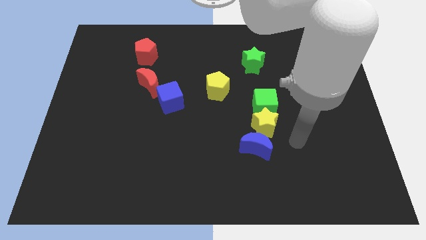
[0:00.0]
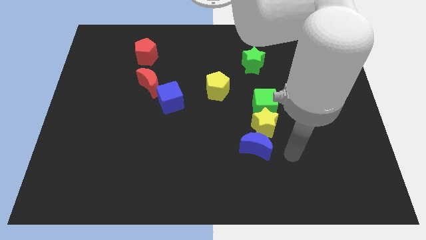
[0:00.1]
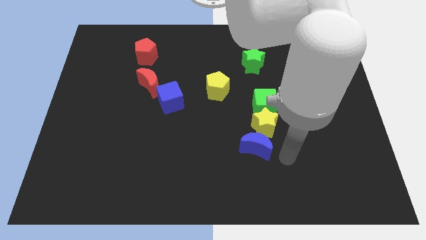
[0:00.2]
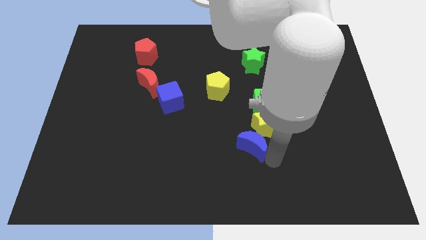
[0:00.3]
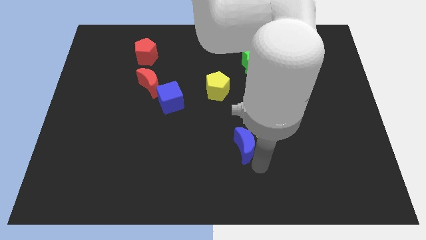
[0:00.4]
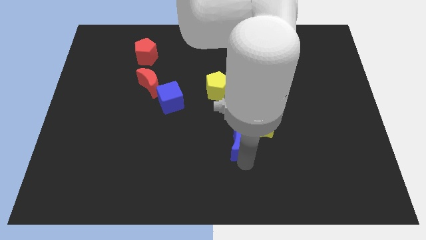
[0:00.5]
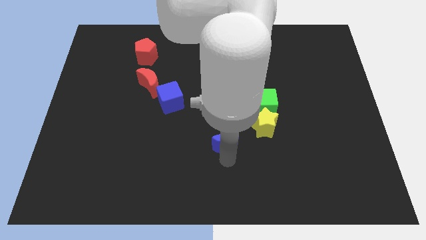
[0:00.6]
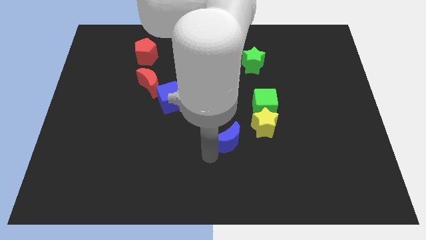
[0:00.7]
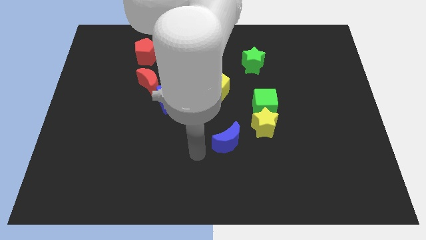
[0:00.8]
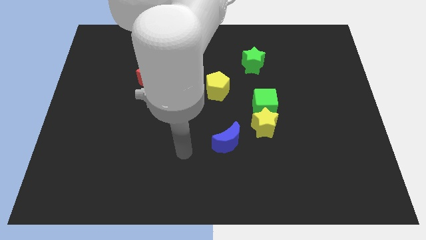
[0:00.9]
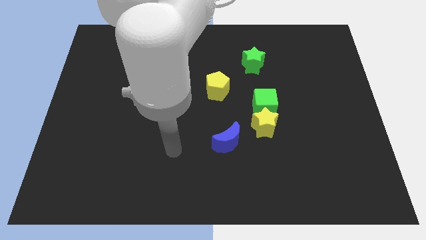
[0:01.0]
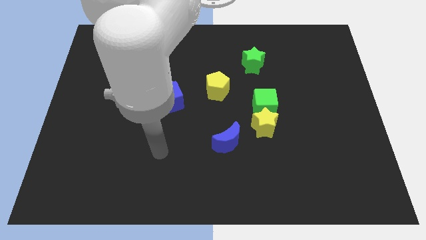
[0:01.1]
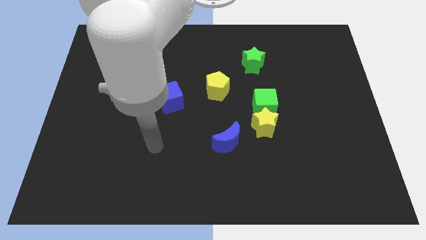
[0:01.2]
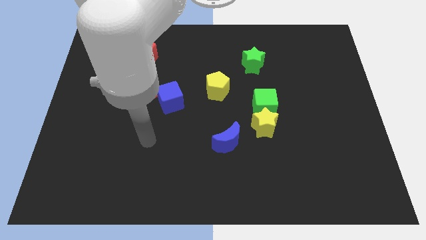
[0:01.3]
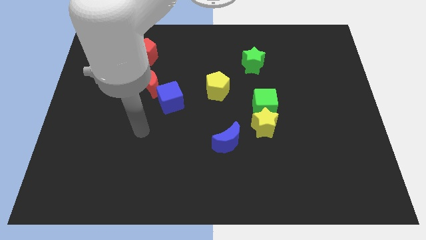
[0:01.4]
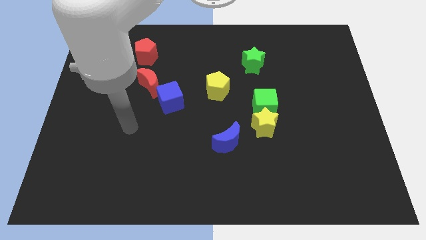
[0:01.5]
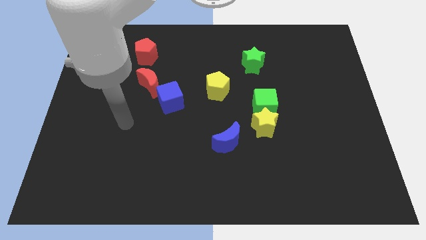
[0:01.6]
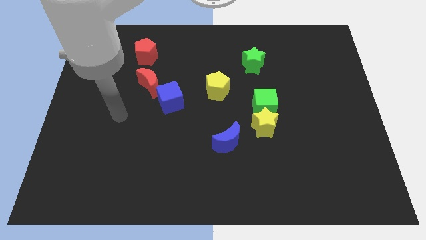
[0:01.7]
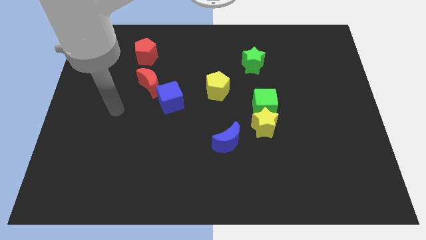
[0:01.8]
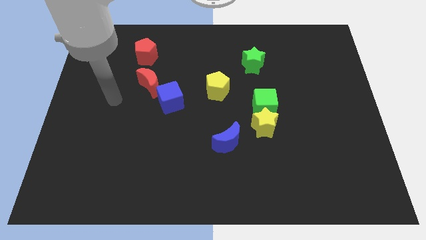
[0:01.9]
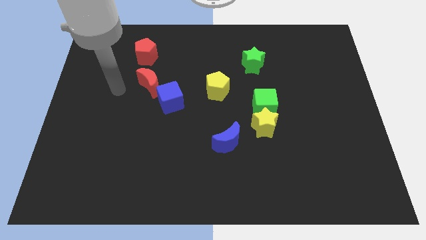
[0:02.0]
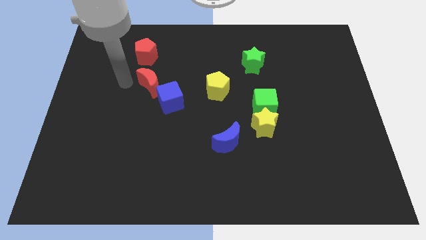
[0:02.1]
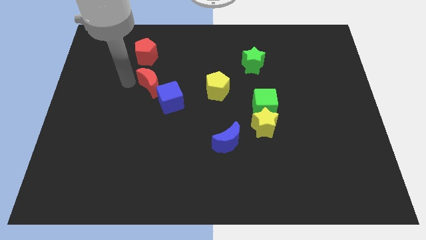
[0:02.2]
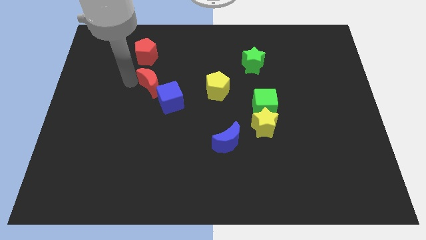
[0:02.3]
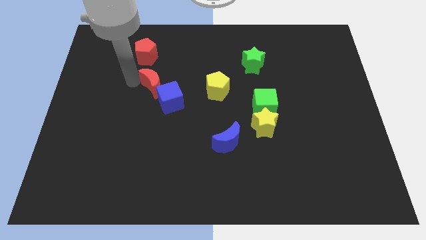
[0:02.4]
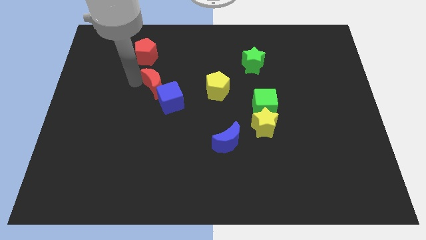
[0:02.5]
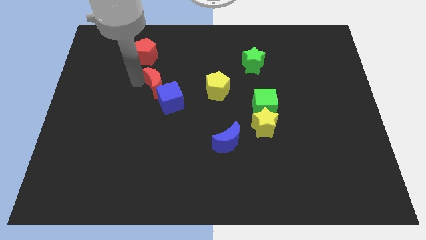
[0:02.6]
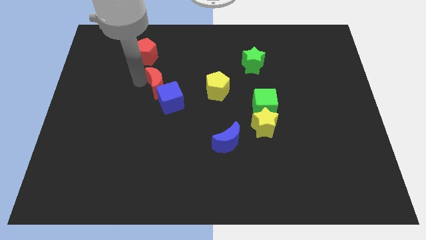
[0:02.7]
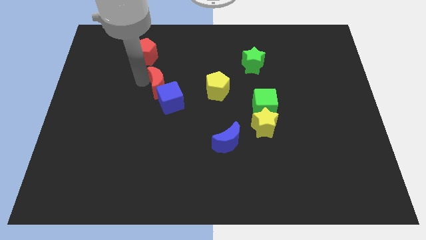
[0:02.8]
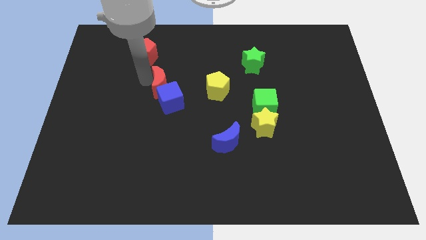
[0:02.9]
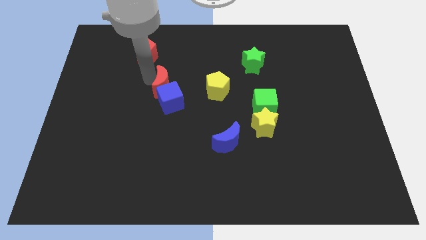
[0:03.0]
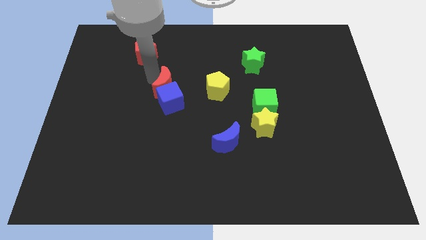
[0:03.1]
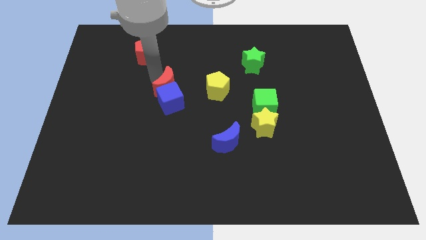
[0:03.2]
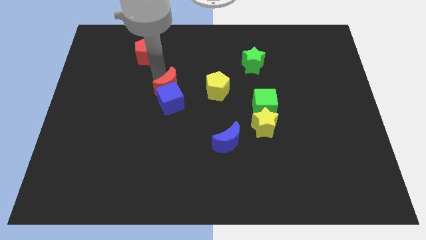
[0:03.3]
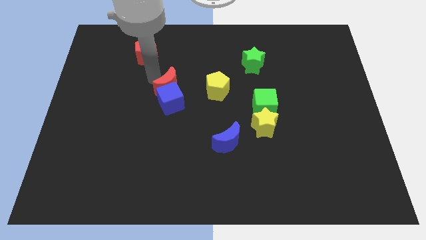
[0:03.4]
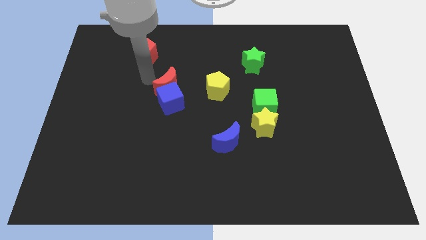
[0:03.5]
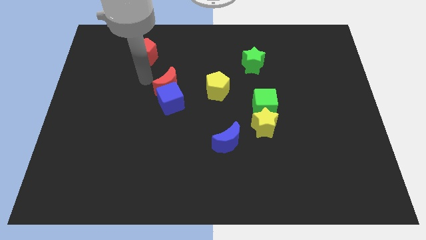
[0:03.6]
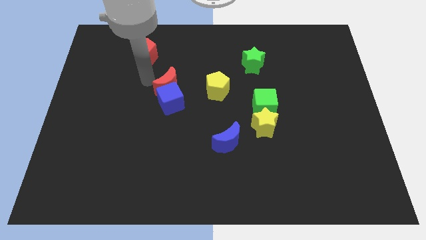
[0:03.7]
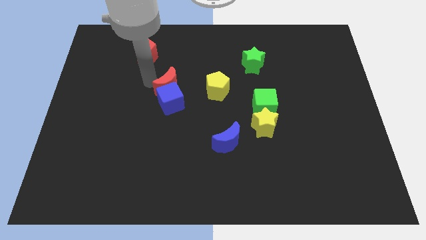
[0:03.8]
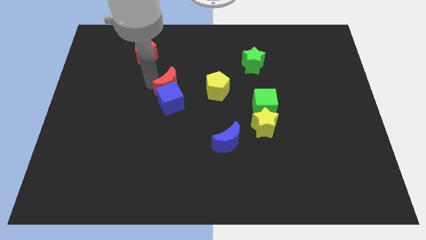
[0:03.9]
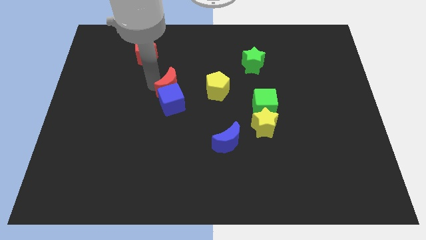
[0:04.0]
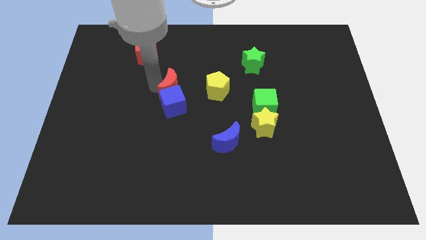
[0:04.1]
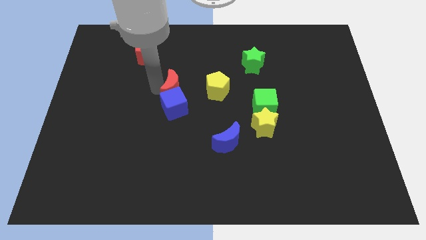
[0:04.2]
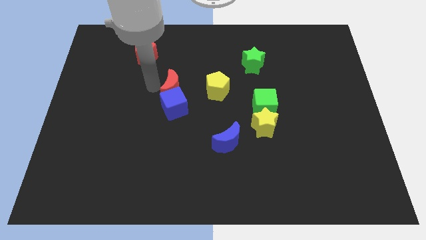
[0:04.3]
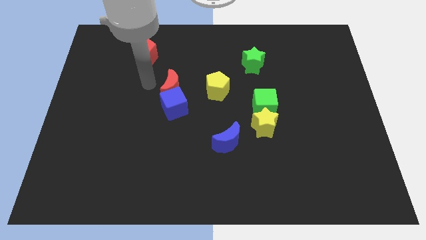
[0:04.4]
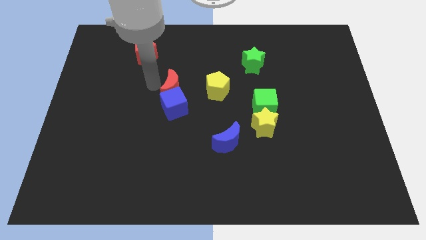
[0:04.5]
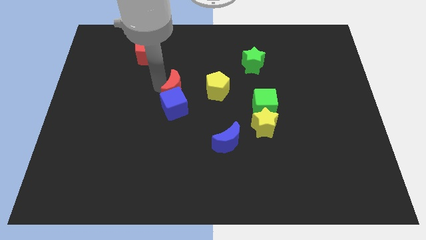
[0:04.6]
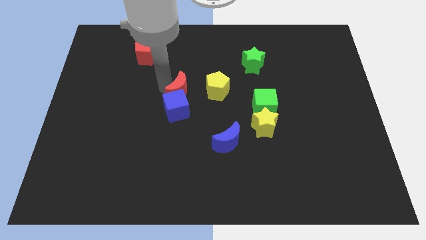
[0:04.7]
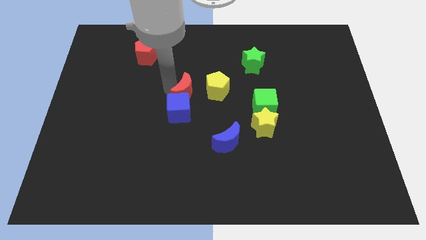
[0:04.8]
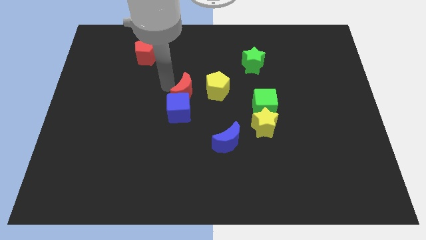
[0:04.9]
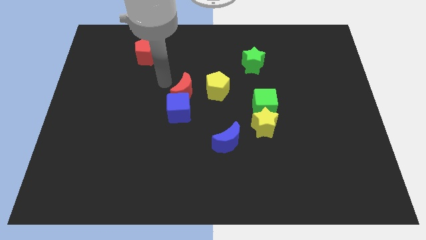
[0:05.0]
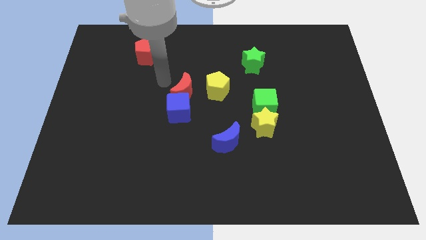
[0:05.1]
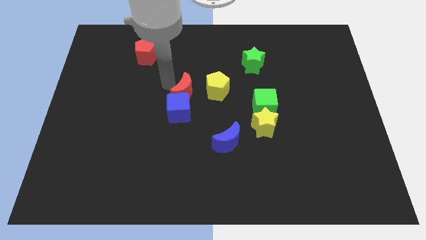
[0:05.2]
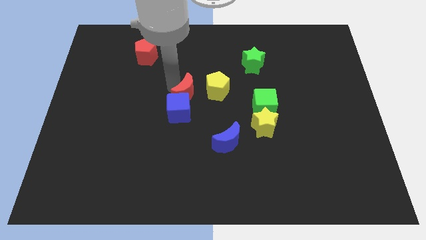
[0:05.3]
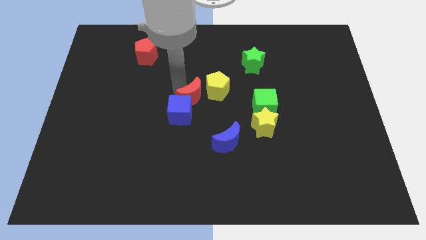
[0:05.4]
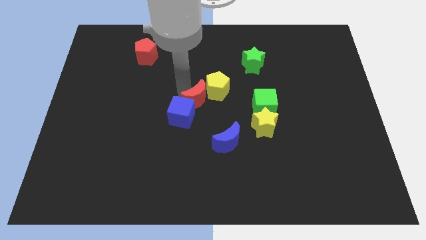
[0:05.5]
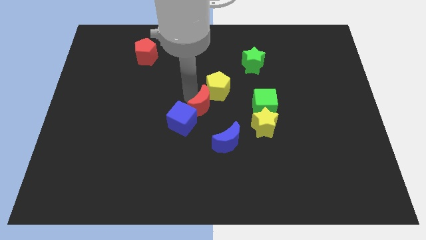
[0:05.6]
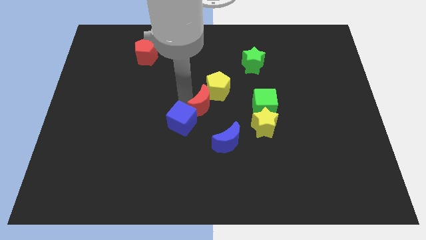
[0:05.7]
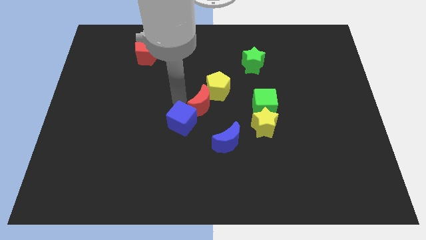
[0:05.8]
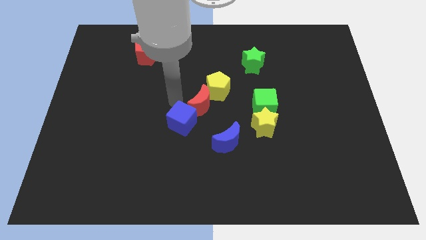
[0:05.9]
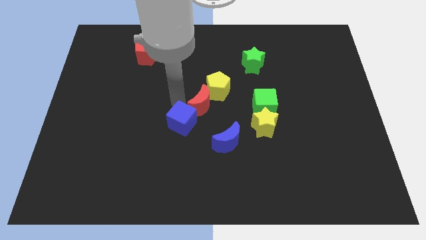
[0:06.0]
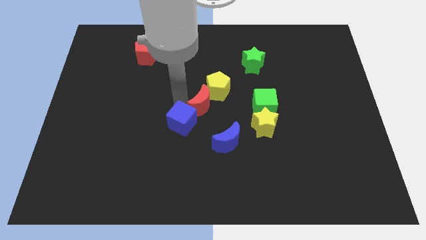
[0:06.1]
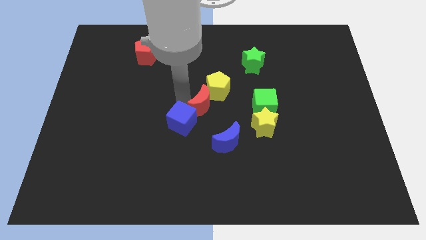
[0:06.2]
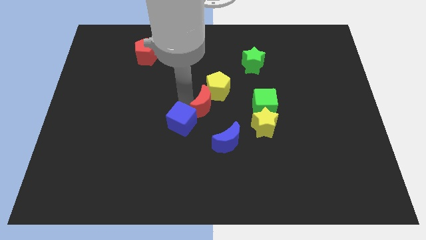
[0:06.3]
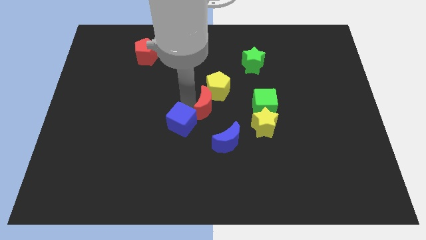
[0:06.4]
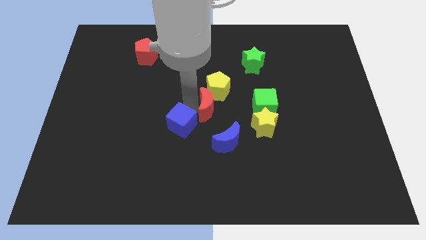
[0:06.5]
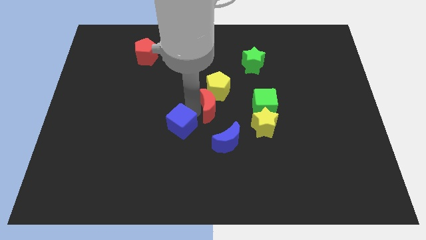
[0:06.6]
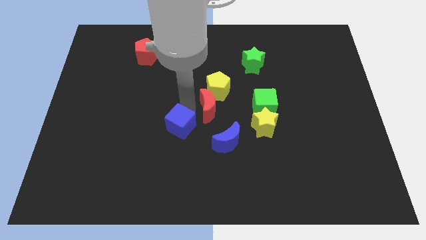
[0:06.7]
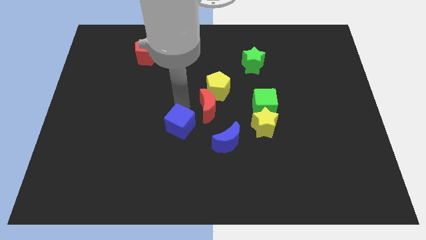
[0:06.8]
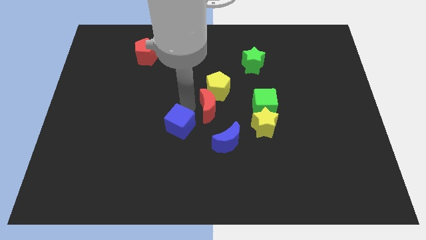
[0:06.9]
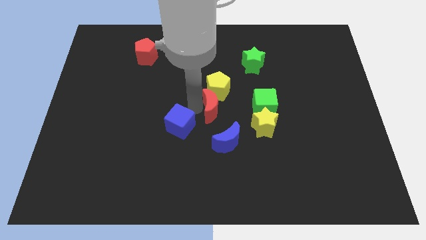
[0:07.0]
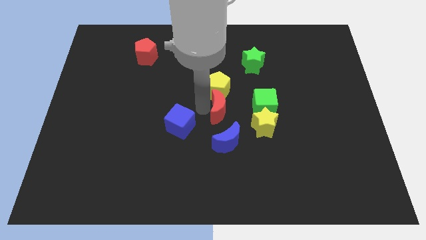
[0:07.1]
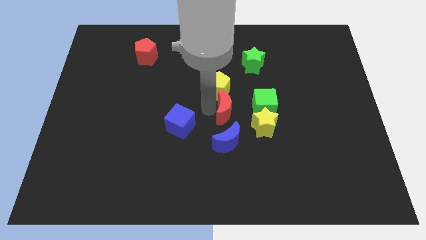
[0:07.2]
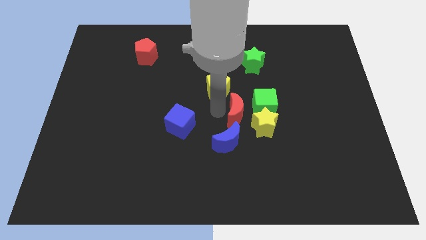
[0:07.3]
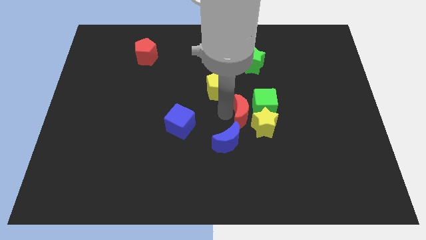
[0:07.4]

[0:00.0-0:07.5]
slide the red moon to the green cube
